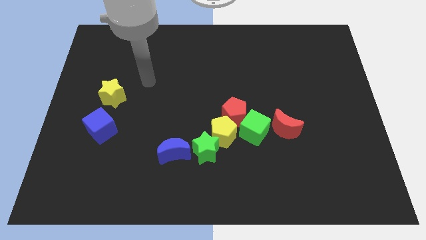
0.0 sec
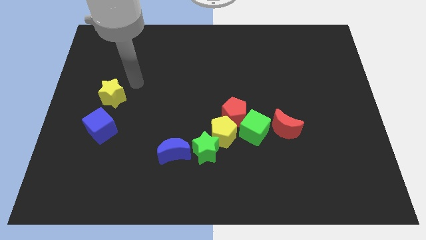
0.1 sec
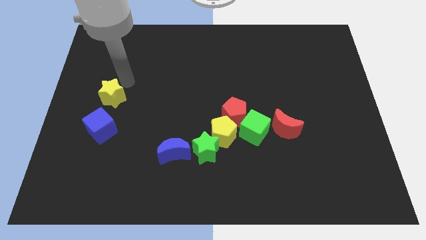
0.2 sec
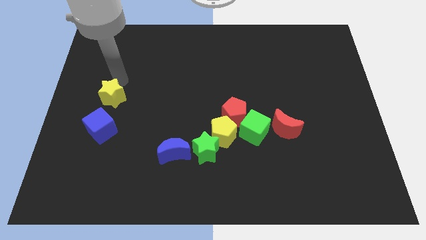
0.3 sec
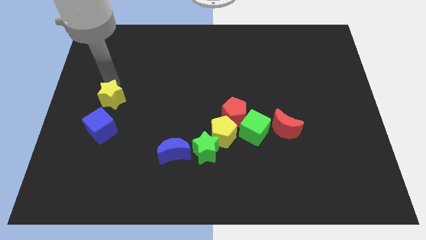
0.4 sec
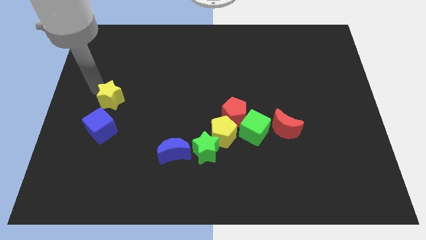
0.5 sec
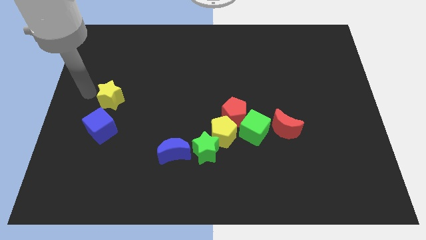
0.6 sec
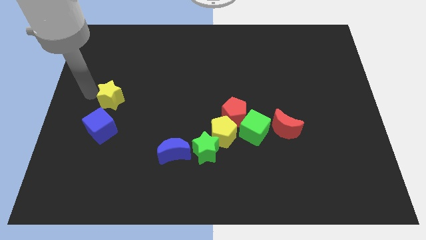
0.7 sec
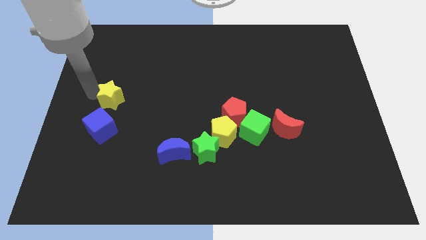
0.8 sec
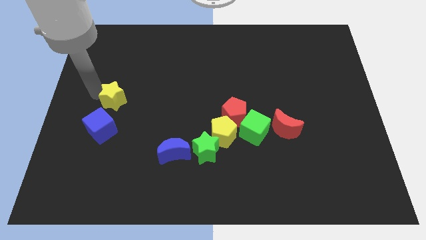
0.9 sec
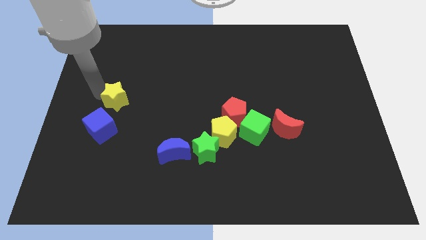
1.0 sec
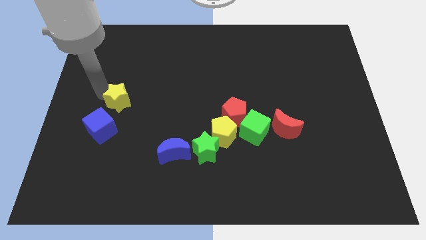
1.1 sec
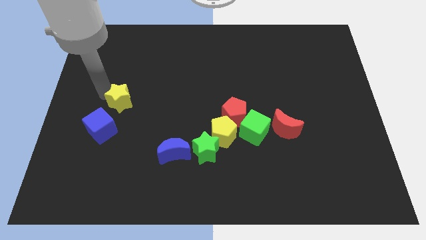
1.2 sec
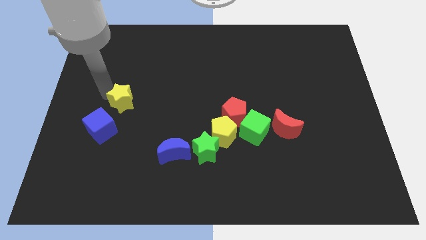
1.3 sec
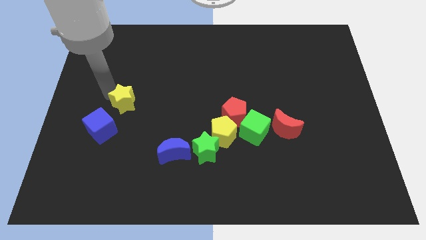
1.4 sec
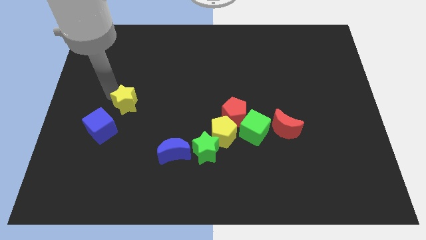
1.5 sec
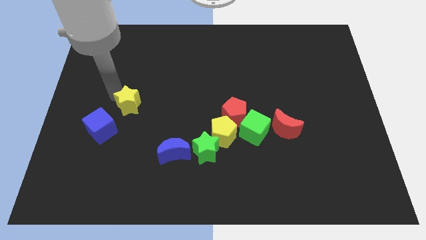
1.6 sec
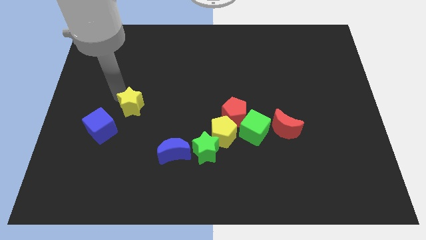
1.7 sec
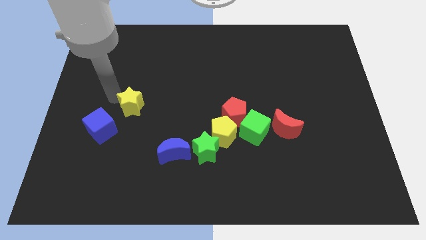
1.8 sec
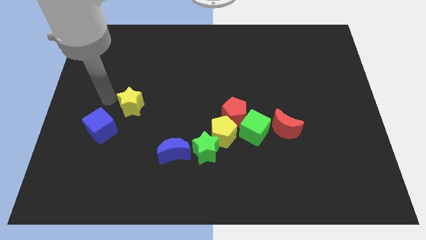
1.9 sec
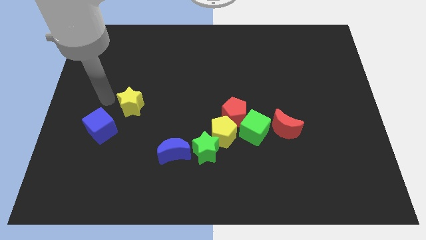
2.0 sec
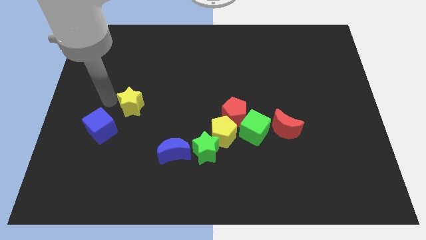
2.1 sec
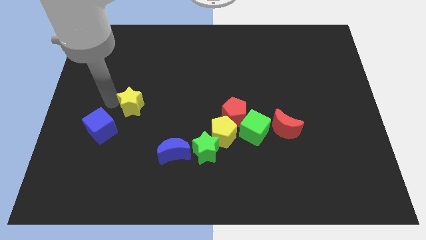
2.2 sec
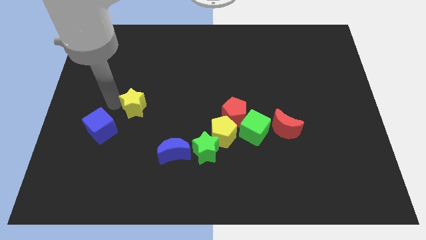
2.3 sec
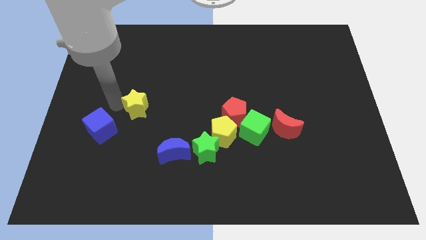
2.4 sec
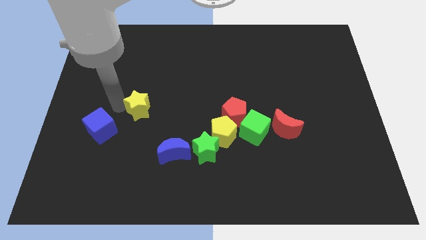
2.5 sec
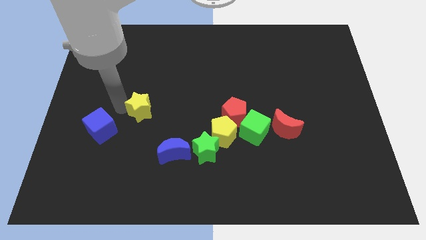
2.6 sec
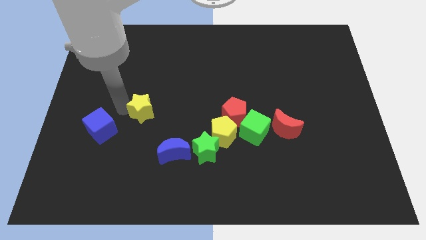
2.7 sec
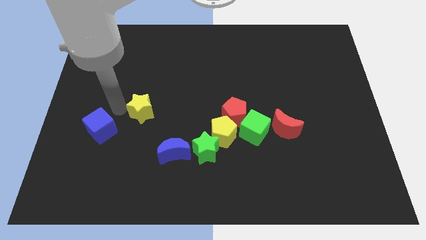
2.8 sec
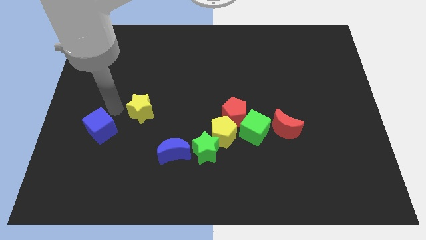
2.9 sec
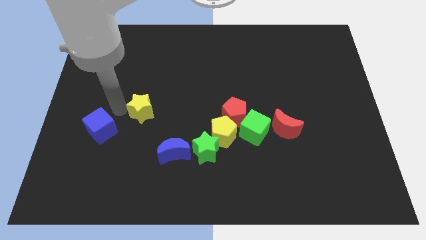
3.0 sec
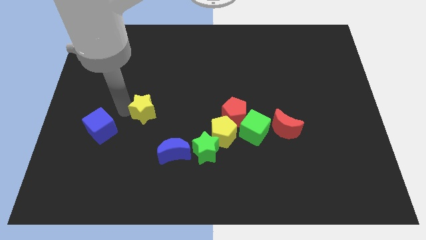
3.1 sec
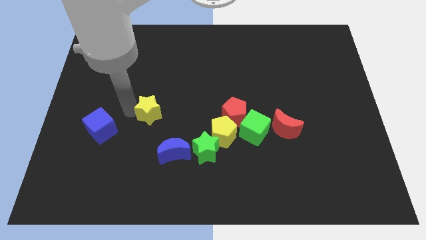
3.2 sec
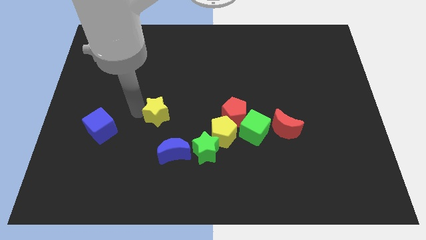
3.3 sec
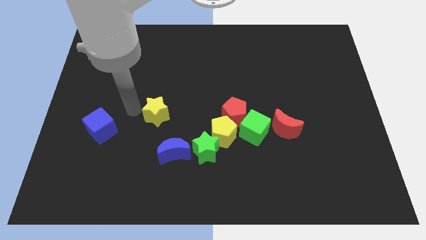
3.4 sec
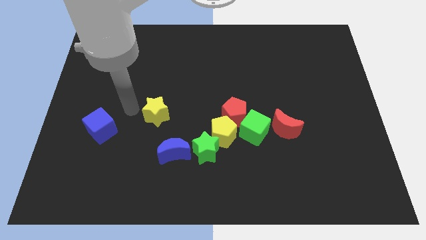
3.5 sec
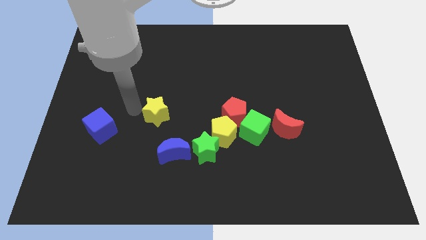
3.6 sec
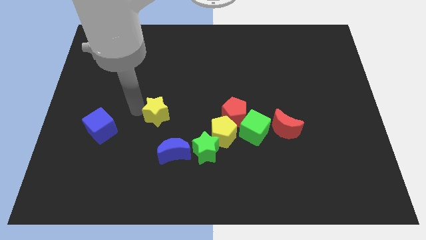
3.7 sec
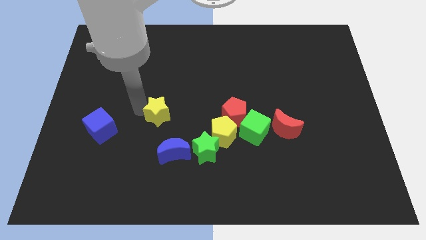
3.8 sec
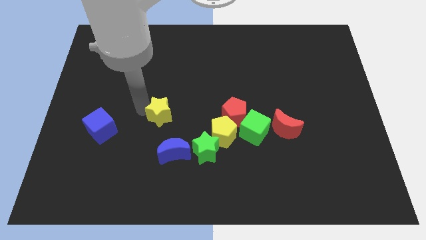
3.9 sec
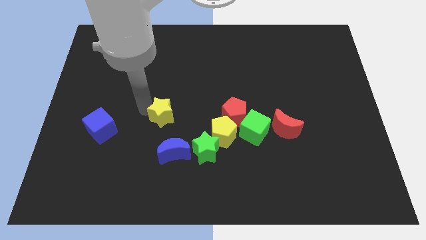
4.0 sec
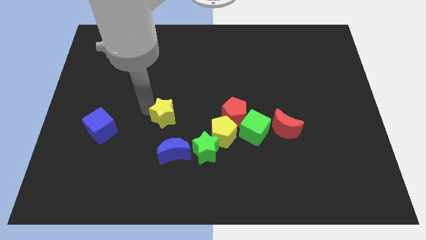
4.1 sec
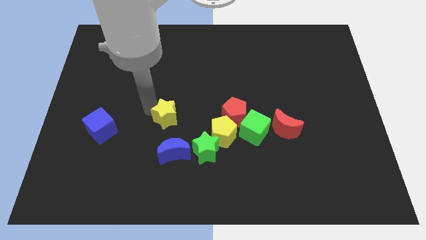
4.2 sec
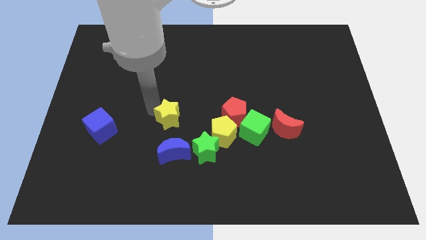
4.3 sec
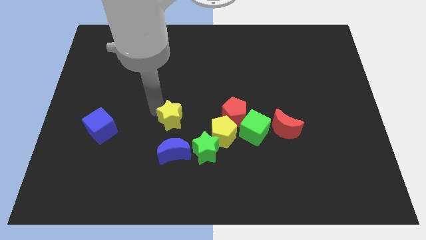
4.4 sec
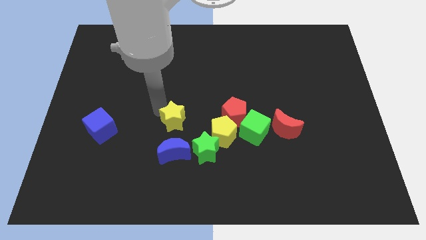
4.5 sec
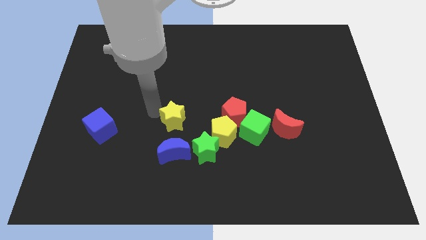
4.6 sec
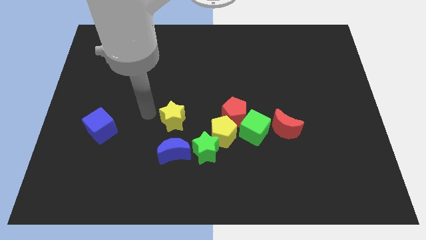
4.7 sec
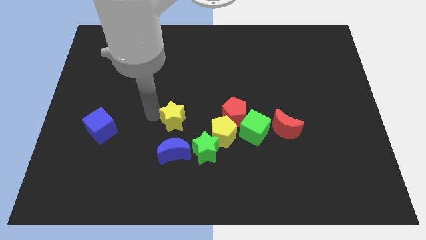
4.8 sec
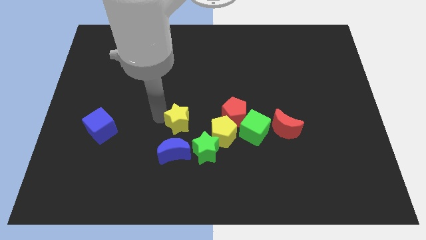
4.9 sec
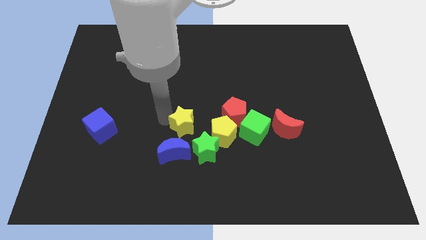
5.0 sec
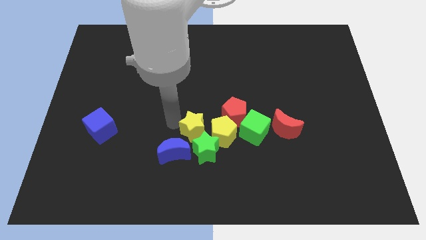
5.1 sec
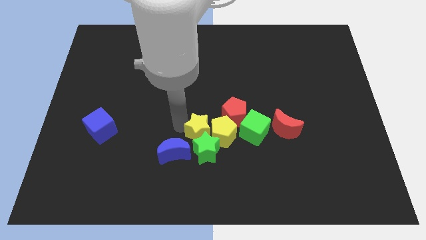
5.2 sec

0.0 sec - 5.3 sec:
push the yellow star next to the yellow pentagon

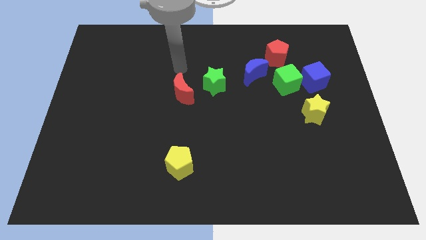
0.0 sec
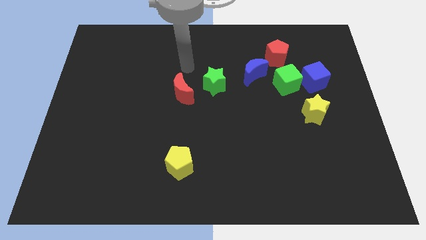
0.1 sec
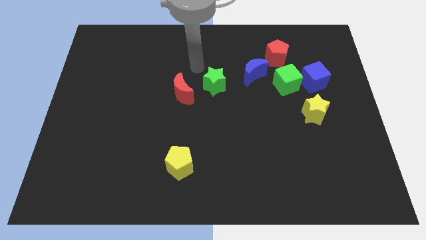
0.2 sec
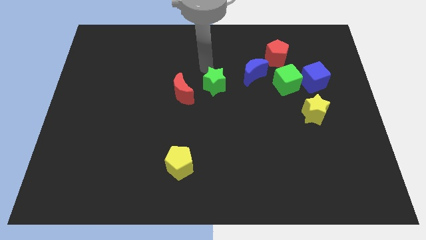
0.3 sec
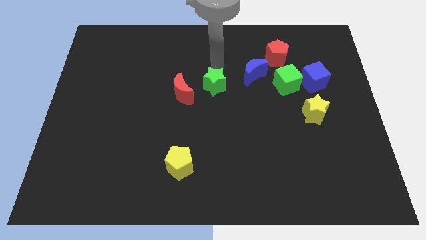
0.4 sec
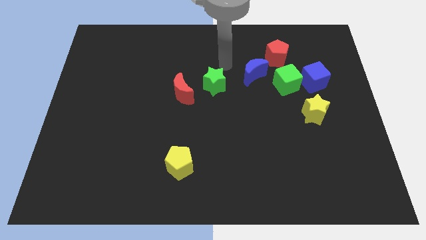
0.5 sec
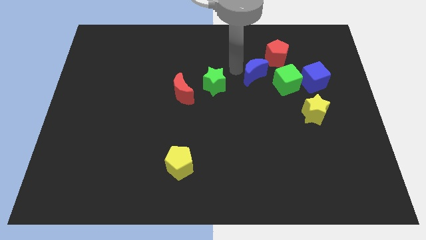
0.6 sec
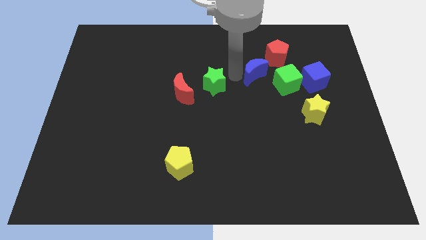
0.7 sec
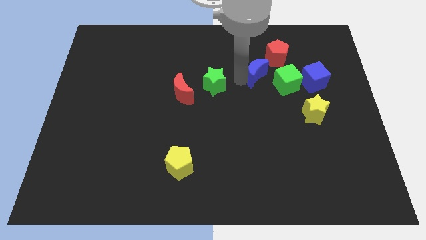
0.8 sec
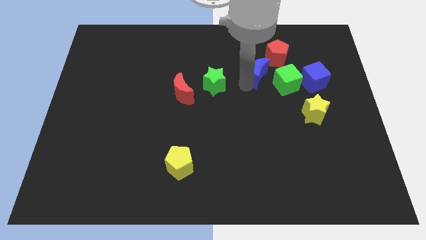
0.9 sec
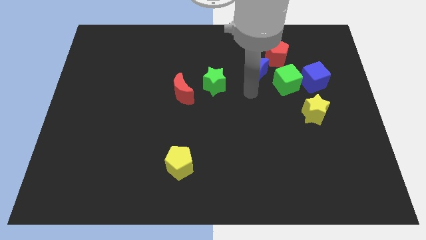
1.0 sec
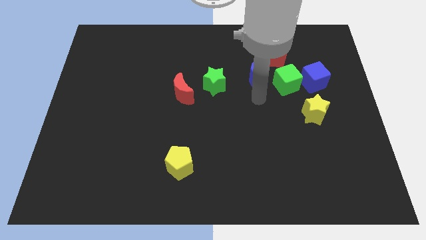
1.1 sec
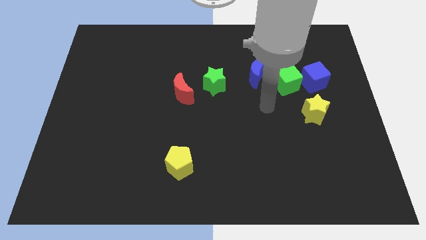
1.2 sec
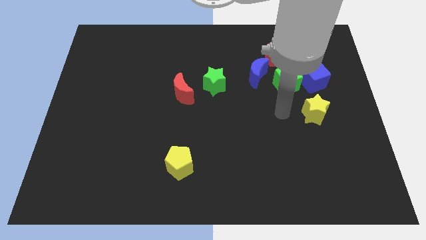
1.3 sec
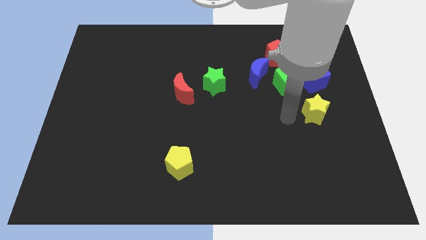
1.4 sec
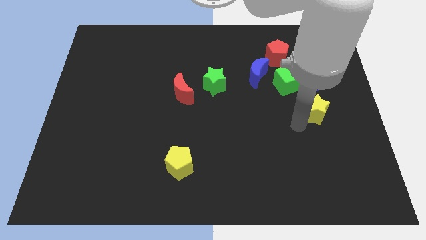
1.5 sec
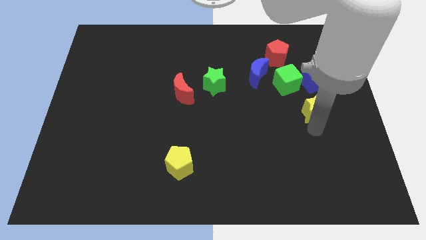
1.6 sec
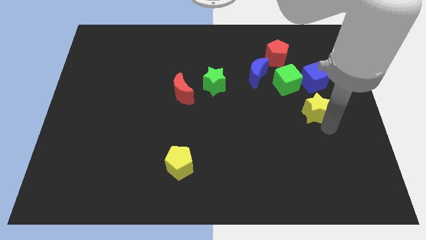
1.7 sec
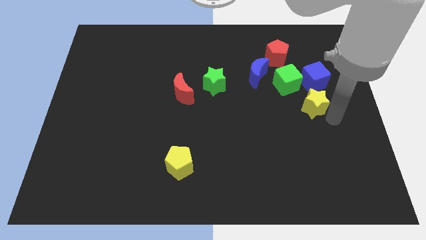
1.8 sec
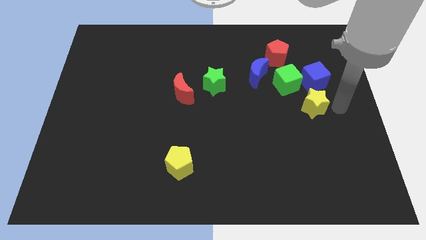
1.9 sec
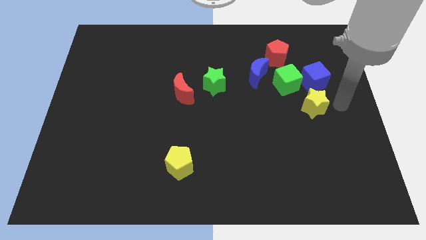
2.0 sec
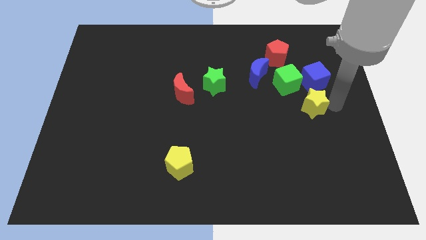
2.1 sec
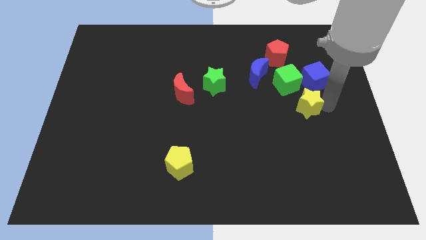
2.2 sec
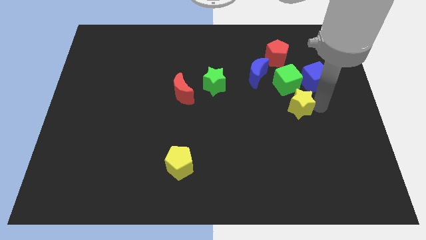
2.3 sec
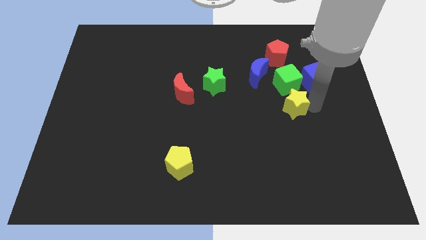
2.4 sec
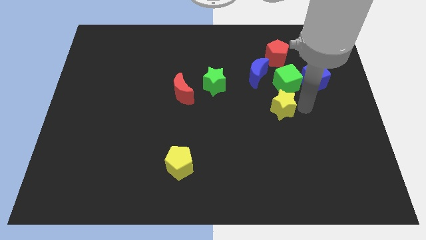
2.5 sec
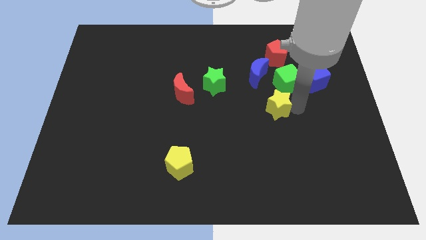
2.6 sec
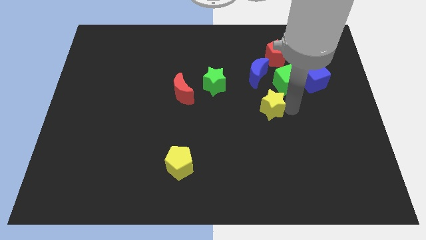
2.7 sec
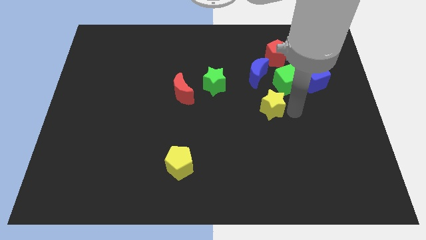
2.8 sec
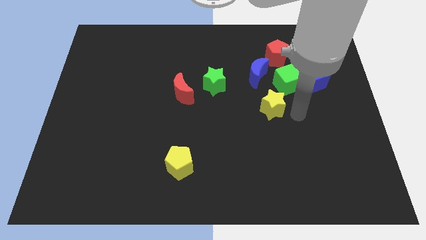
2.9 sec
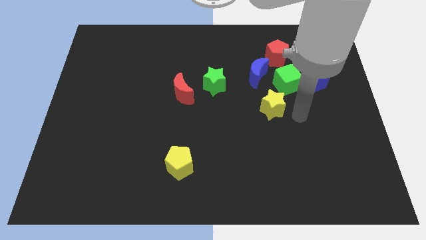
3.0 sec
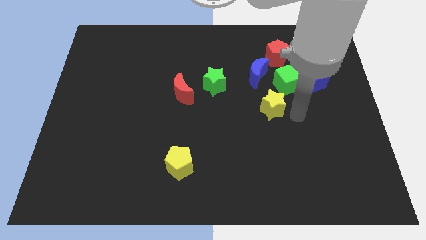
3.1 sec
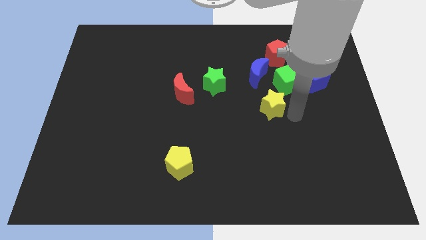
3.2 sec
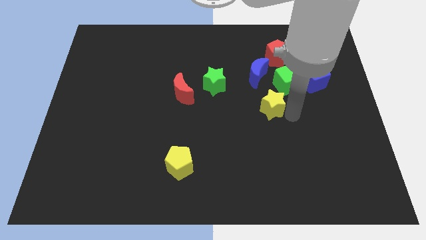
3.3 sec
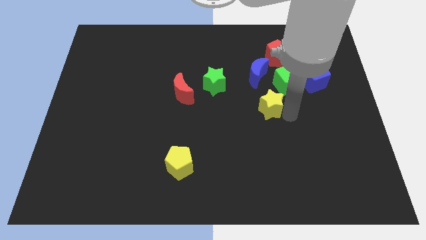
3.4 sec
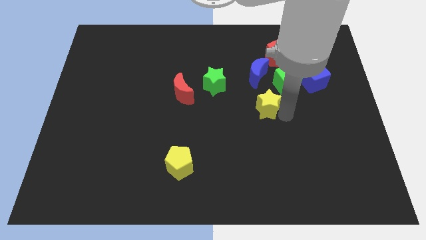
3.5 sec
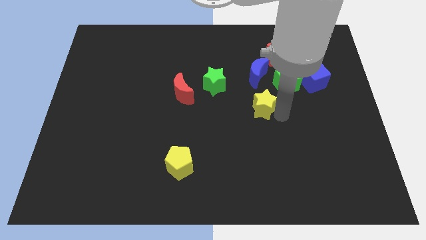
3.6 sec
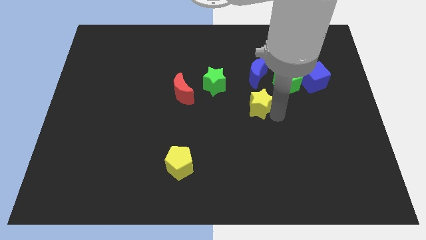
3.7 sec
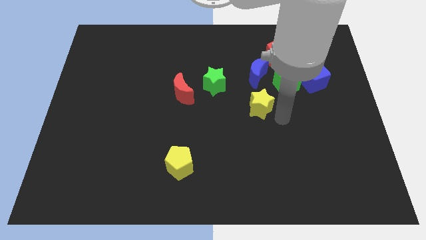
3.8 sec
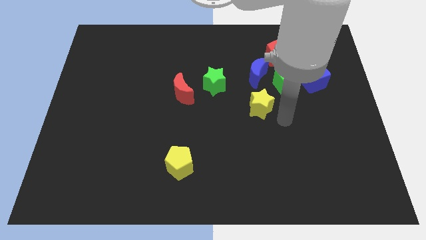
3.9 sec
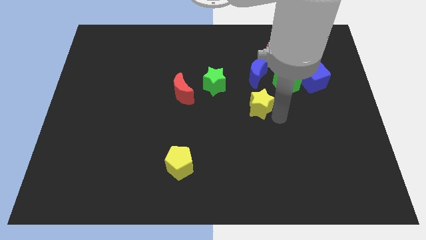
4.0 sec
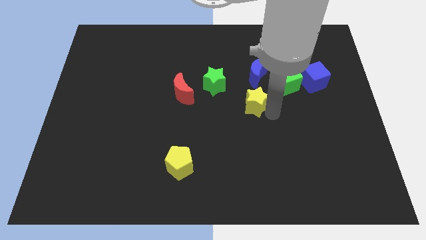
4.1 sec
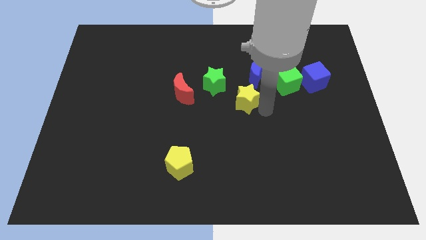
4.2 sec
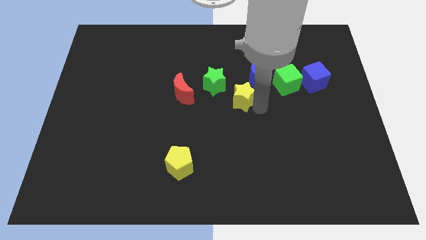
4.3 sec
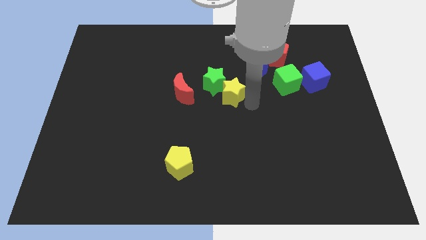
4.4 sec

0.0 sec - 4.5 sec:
slide the yellow star next to the green star
